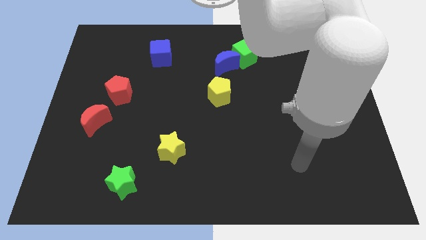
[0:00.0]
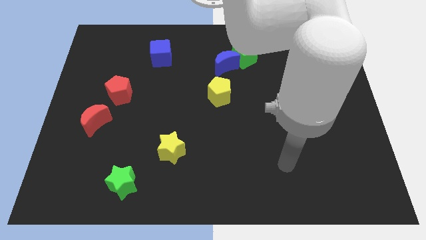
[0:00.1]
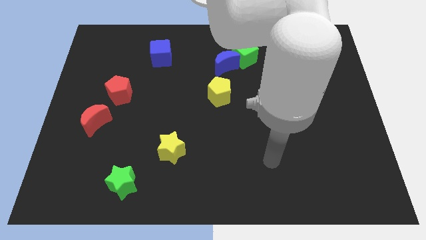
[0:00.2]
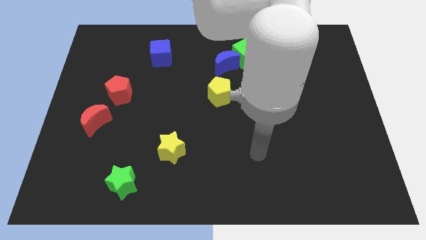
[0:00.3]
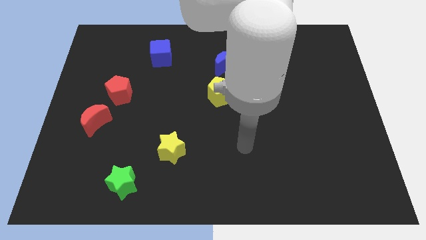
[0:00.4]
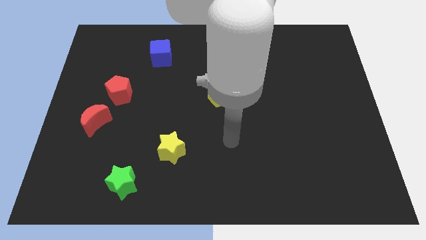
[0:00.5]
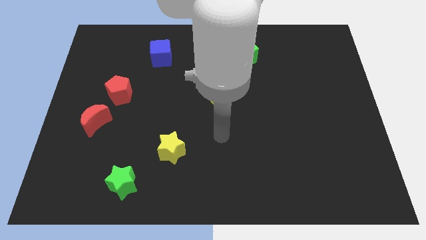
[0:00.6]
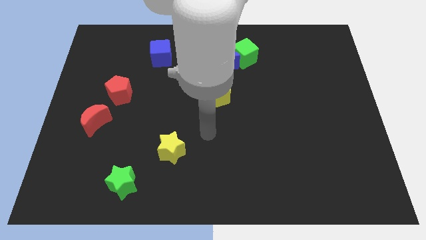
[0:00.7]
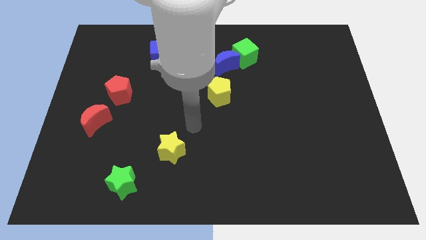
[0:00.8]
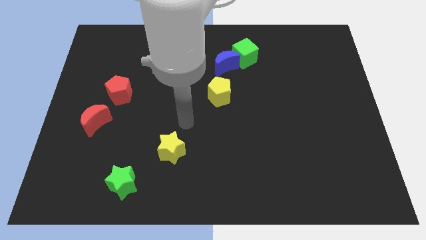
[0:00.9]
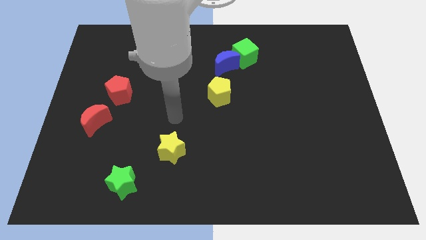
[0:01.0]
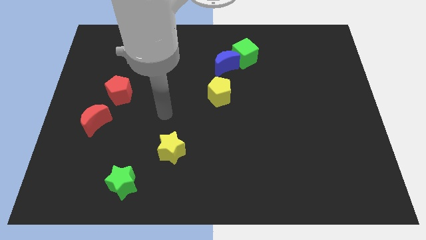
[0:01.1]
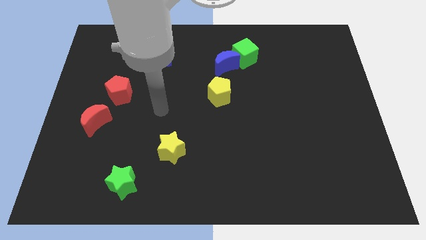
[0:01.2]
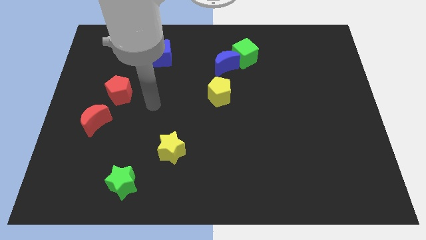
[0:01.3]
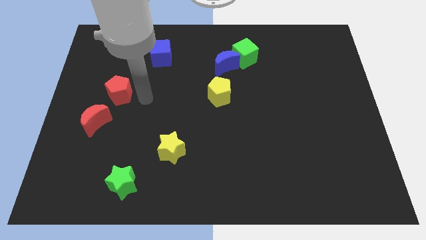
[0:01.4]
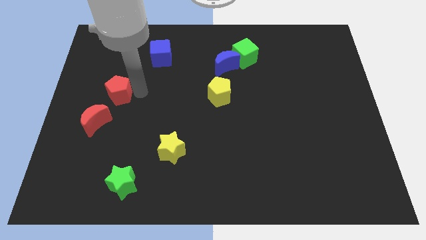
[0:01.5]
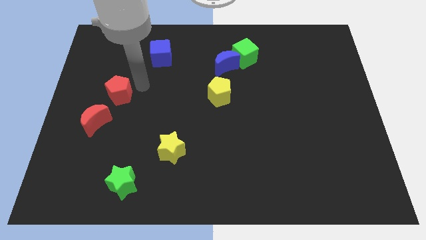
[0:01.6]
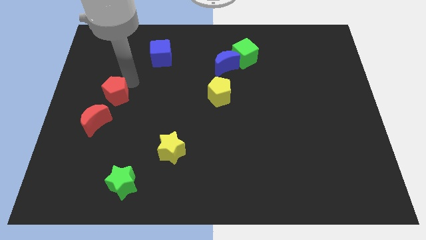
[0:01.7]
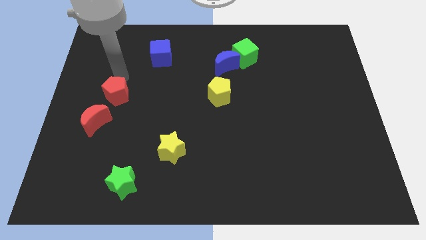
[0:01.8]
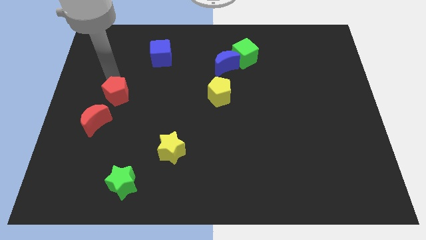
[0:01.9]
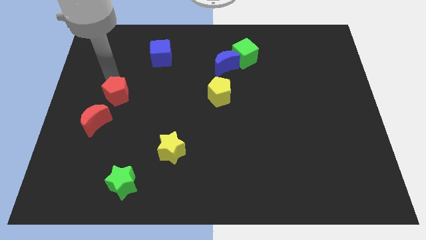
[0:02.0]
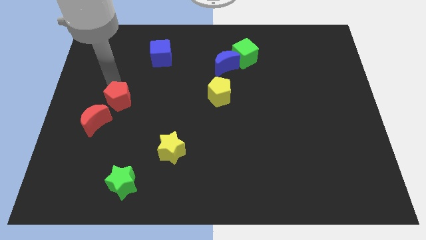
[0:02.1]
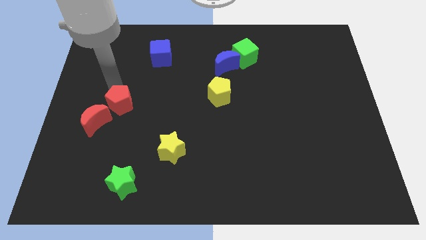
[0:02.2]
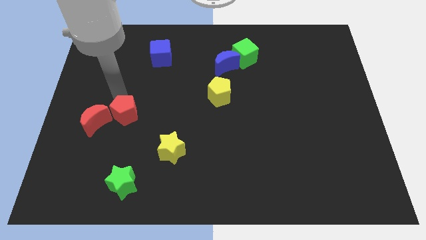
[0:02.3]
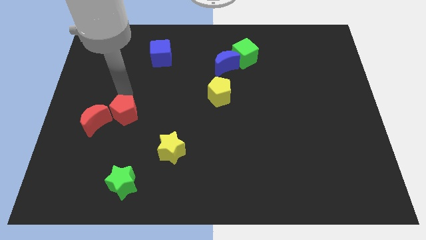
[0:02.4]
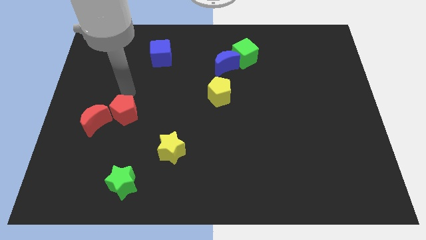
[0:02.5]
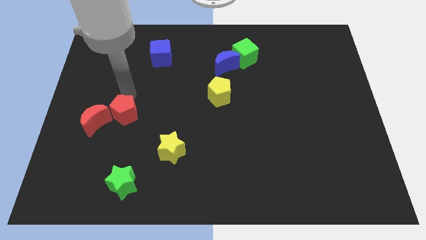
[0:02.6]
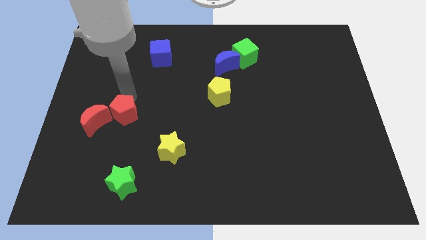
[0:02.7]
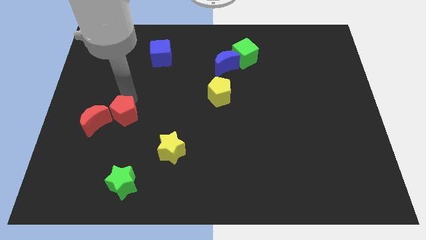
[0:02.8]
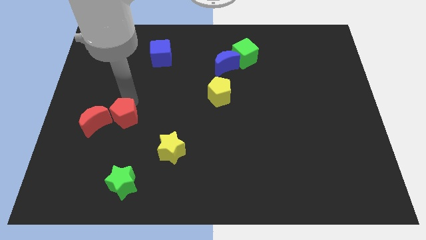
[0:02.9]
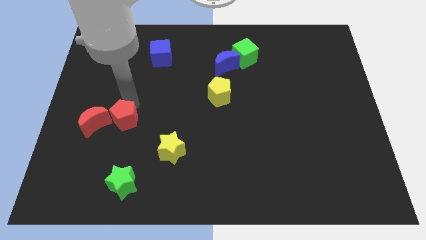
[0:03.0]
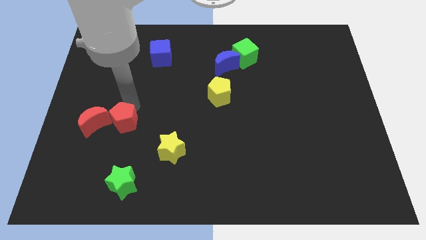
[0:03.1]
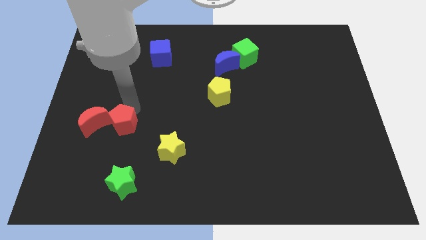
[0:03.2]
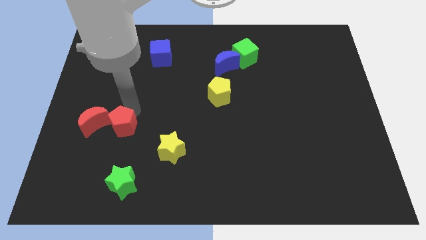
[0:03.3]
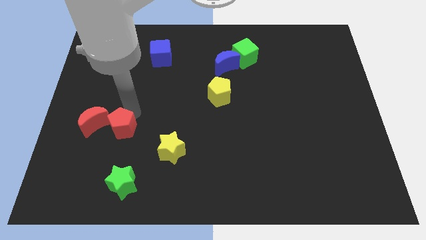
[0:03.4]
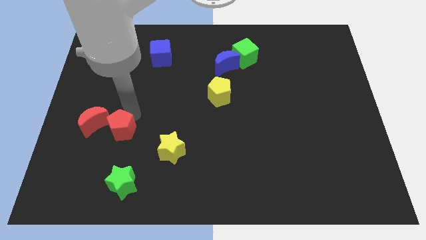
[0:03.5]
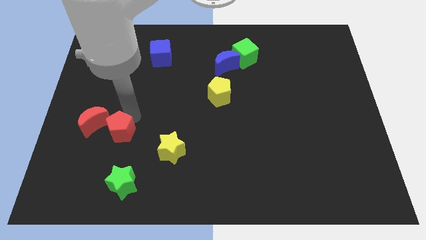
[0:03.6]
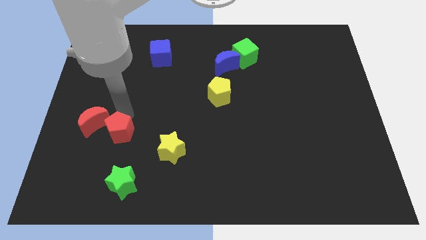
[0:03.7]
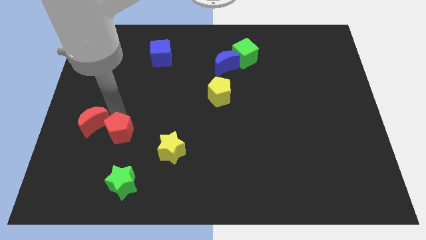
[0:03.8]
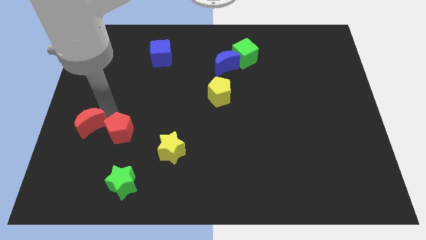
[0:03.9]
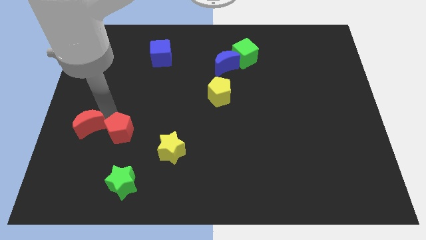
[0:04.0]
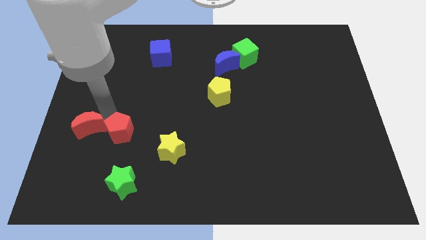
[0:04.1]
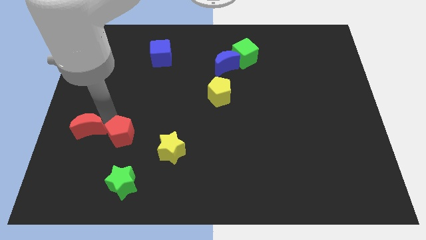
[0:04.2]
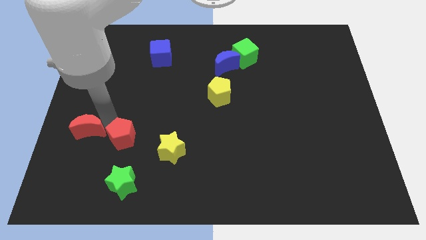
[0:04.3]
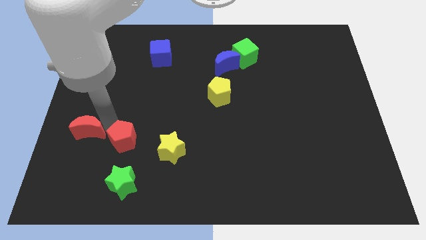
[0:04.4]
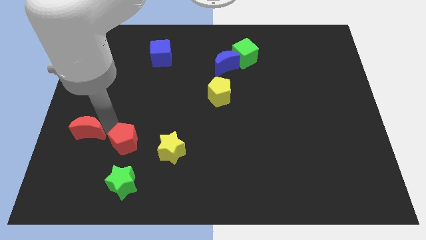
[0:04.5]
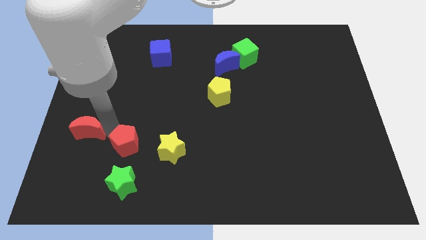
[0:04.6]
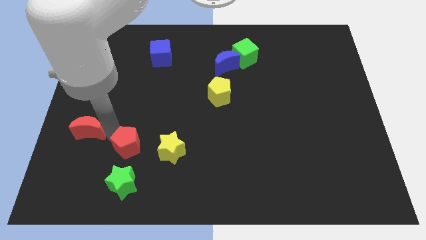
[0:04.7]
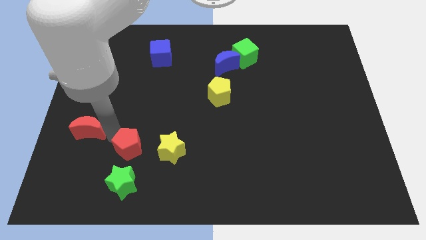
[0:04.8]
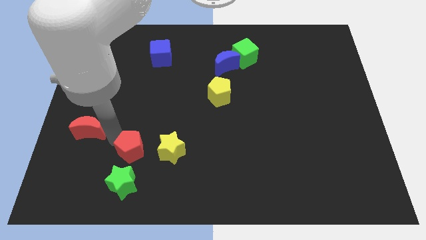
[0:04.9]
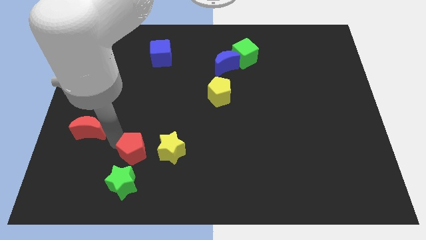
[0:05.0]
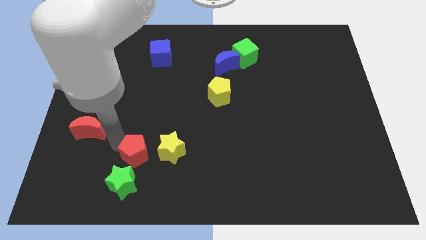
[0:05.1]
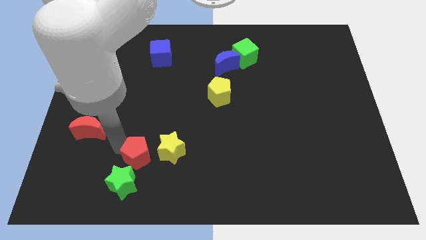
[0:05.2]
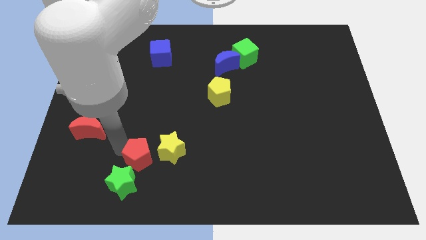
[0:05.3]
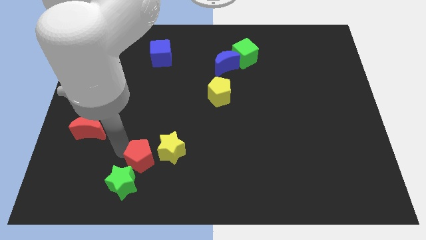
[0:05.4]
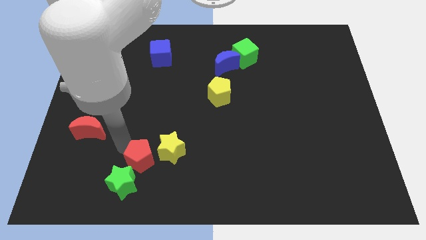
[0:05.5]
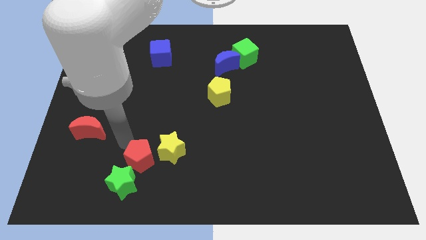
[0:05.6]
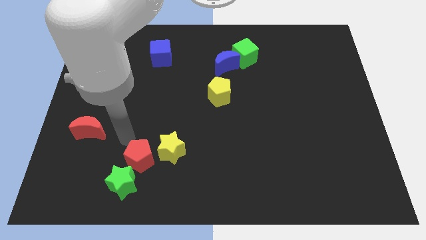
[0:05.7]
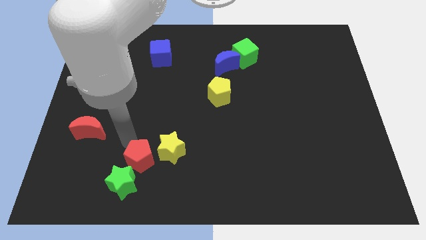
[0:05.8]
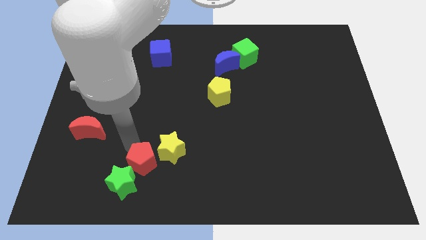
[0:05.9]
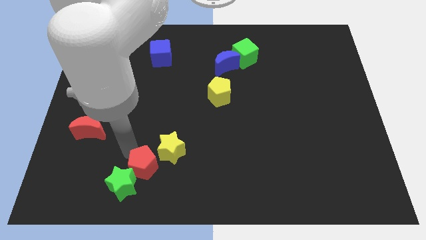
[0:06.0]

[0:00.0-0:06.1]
put the red pentagon right of the green star

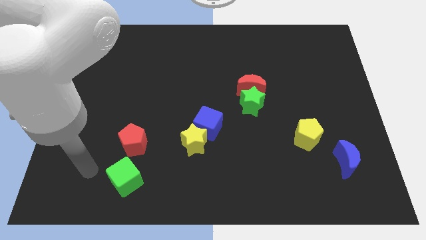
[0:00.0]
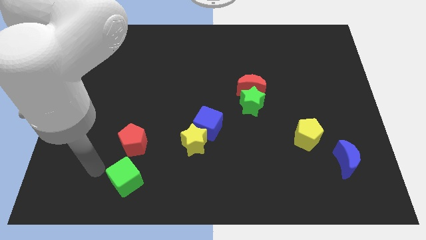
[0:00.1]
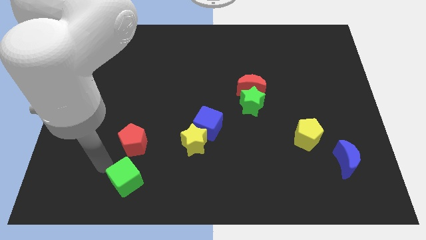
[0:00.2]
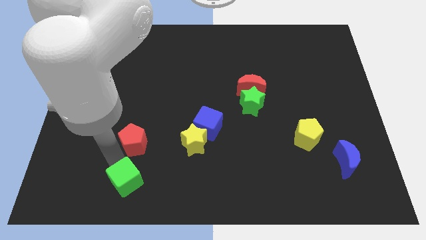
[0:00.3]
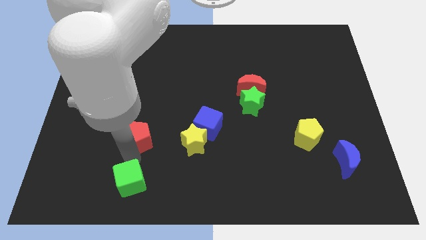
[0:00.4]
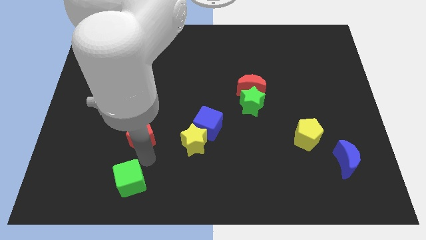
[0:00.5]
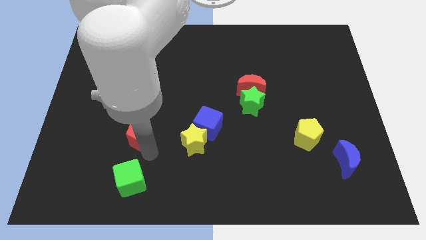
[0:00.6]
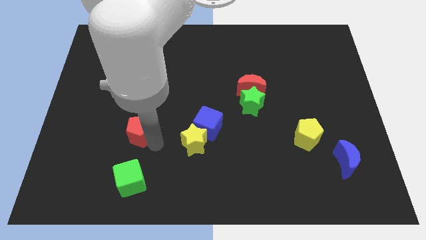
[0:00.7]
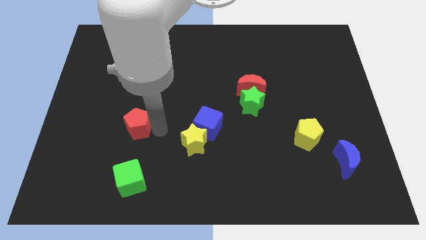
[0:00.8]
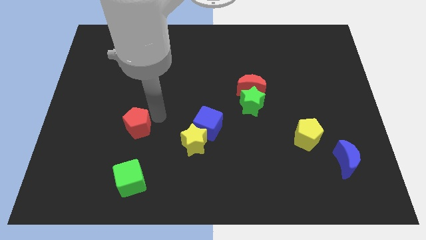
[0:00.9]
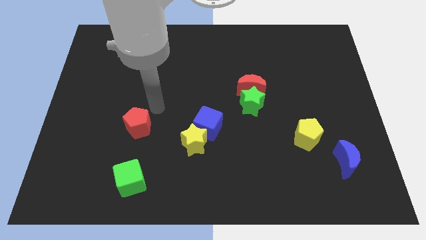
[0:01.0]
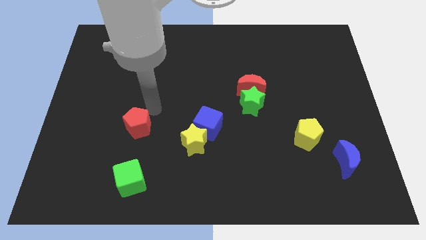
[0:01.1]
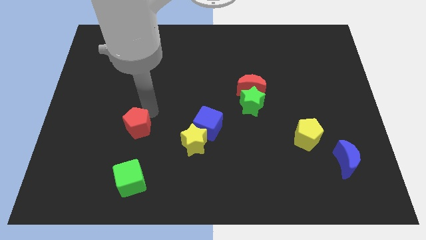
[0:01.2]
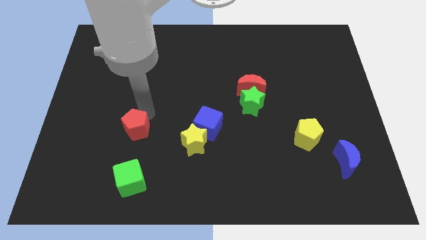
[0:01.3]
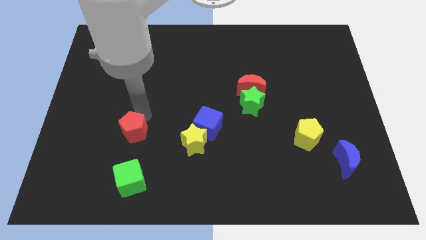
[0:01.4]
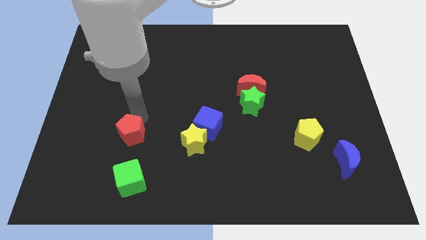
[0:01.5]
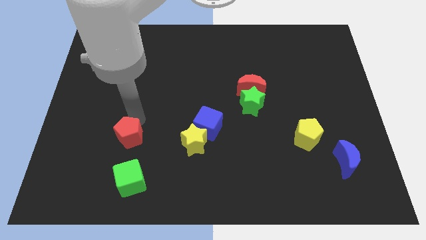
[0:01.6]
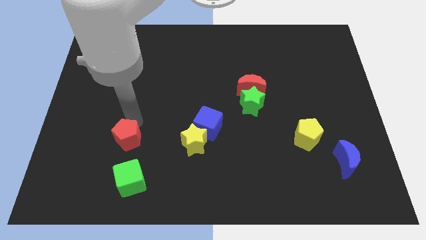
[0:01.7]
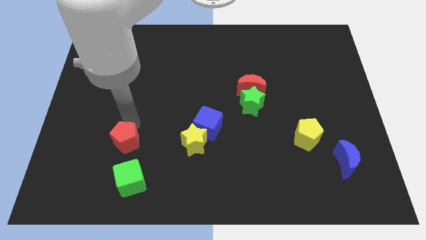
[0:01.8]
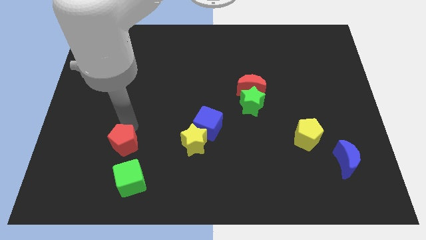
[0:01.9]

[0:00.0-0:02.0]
move the red pentagon to the top left of the green cube
